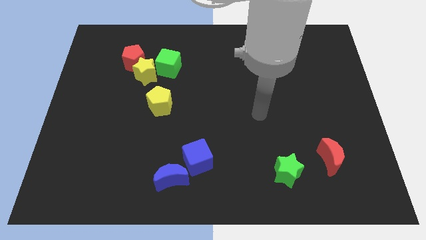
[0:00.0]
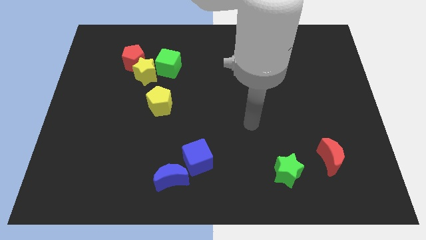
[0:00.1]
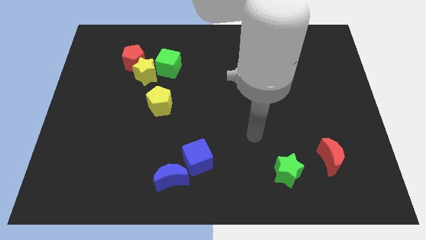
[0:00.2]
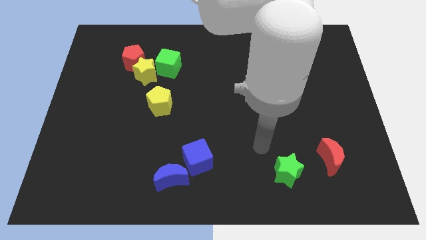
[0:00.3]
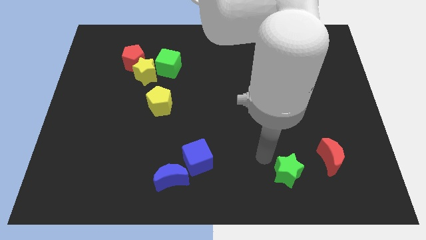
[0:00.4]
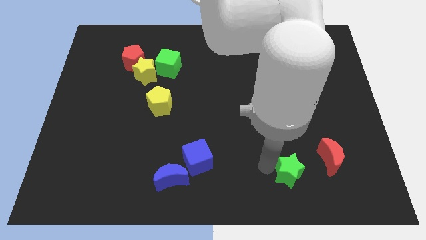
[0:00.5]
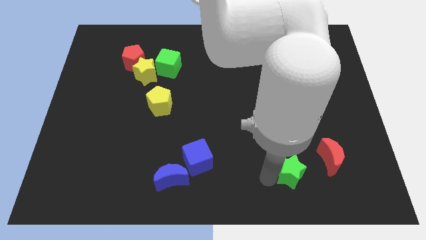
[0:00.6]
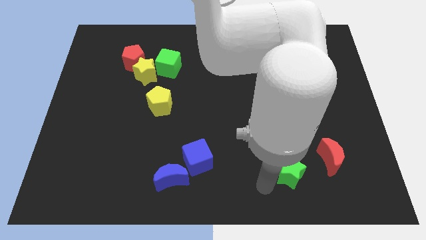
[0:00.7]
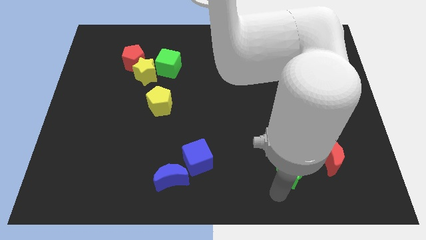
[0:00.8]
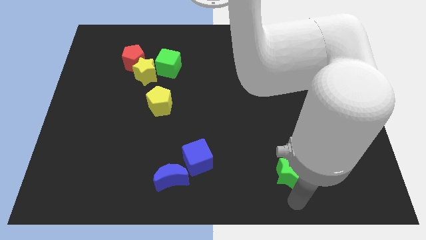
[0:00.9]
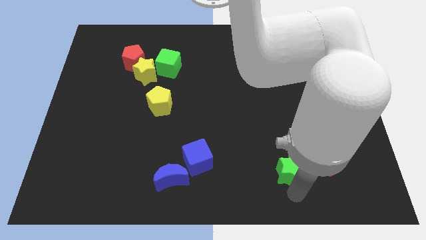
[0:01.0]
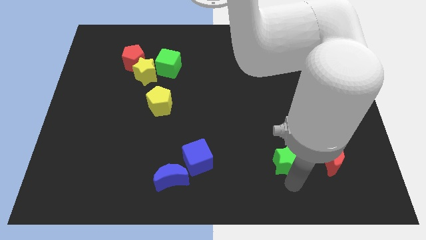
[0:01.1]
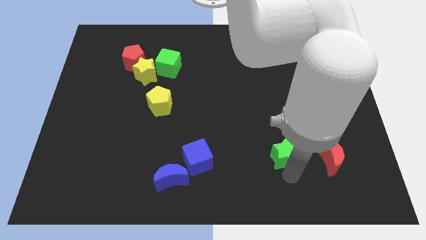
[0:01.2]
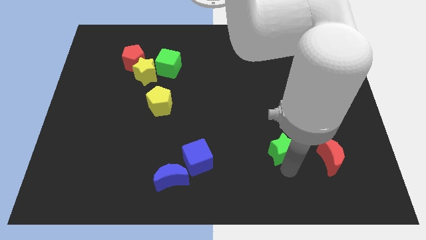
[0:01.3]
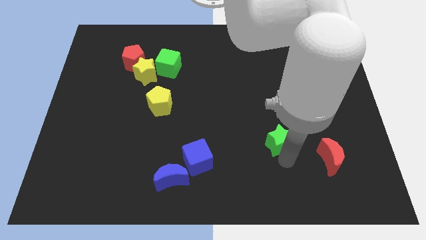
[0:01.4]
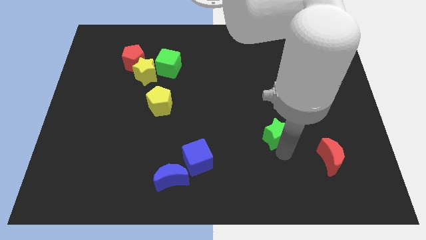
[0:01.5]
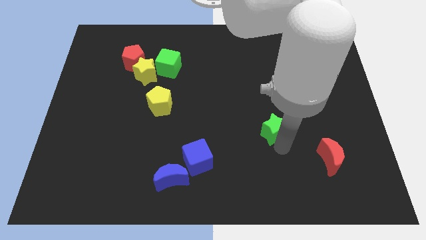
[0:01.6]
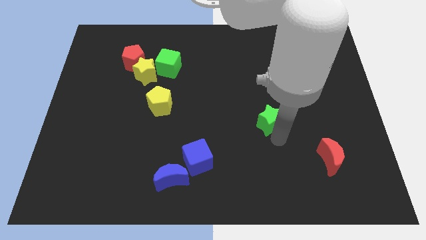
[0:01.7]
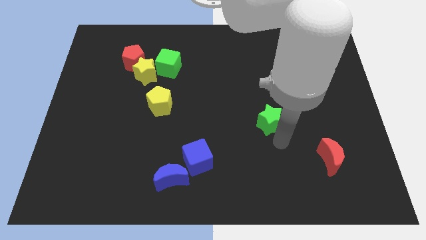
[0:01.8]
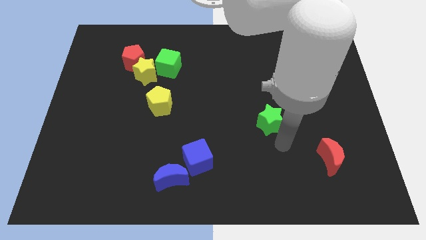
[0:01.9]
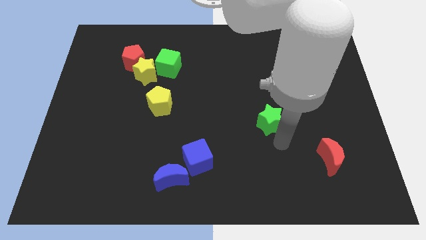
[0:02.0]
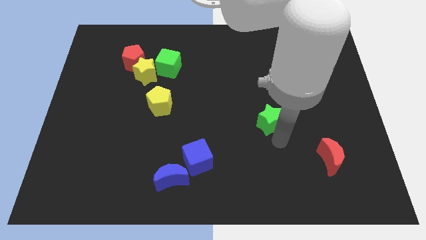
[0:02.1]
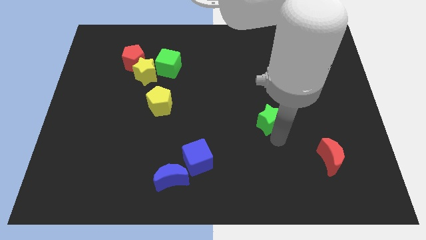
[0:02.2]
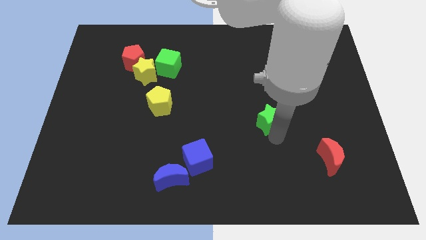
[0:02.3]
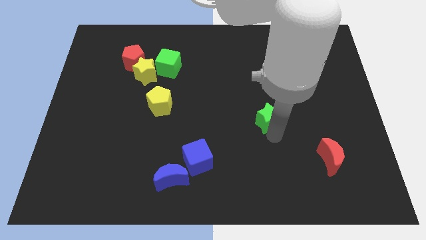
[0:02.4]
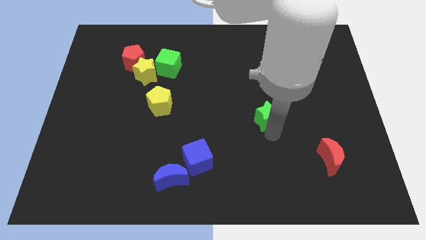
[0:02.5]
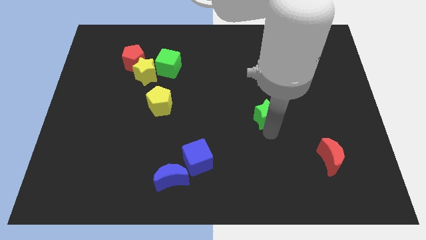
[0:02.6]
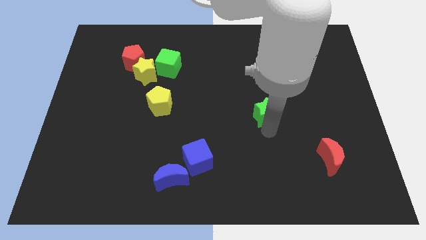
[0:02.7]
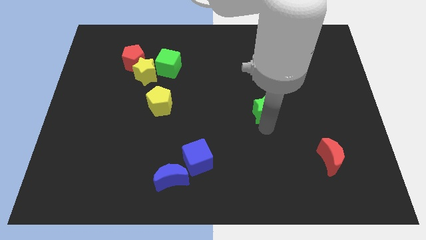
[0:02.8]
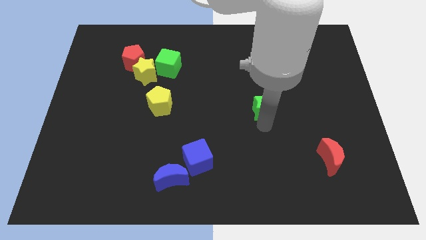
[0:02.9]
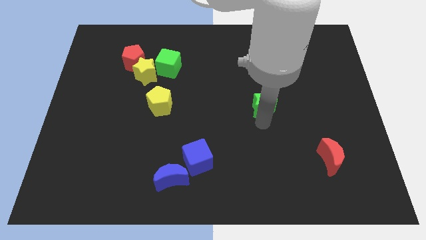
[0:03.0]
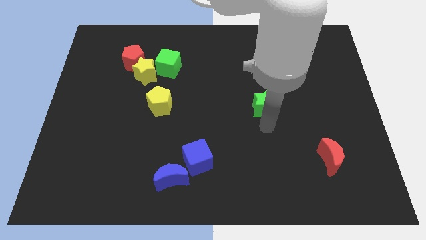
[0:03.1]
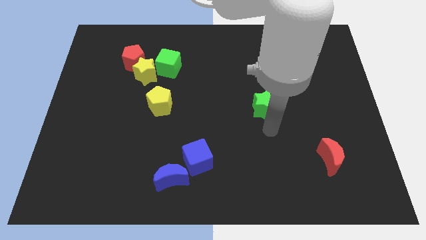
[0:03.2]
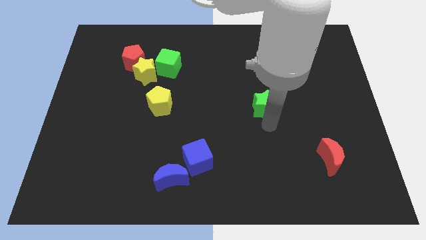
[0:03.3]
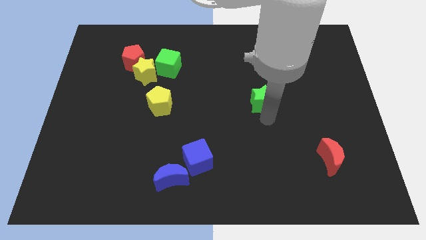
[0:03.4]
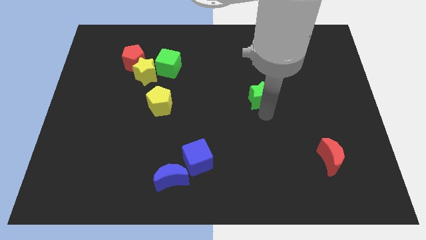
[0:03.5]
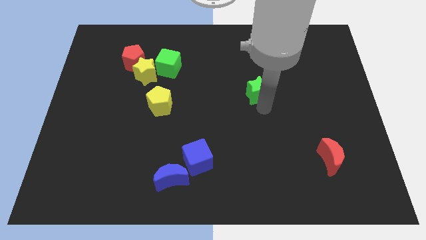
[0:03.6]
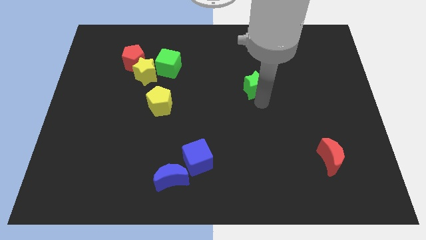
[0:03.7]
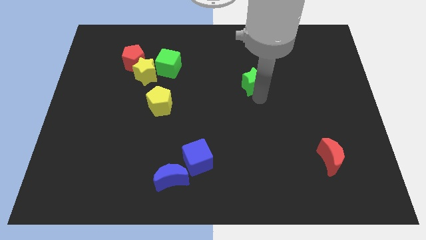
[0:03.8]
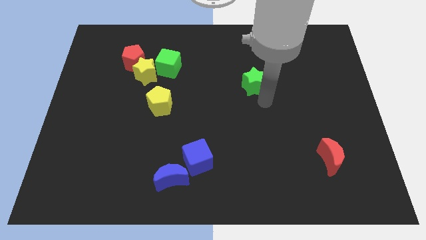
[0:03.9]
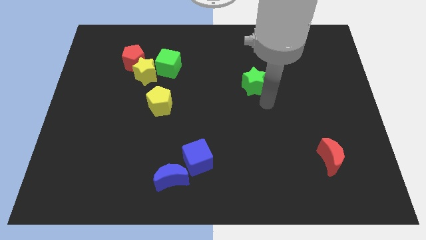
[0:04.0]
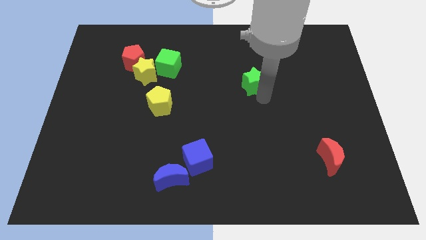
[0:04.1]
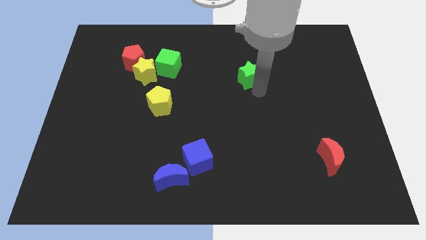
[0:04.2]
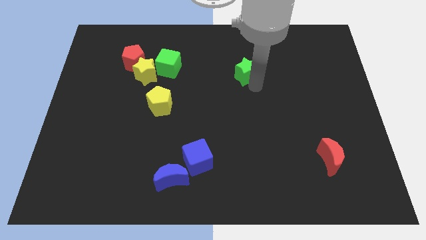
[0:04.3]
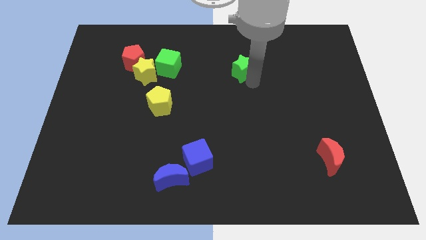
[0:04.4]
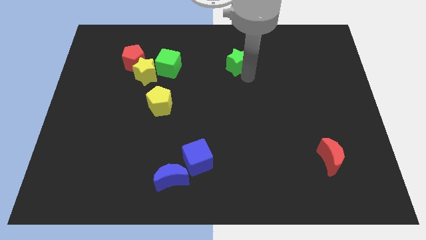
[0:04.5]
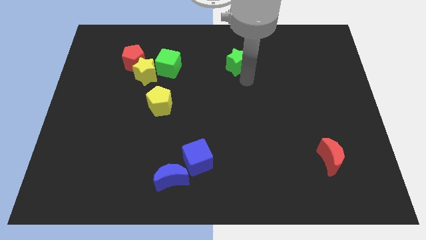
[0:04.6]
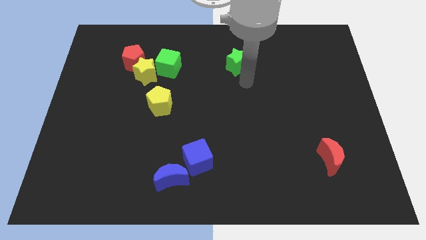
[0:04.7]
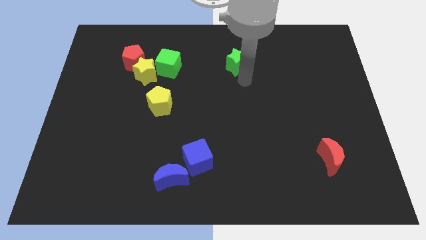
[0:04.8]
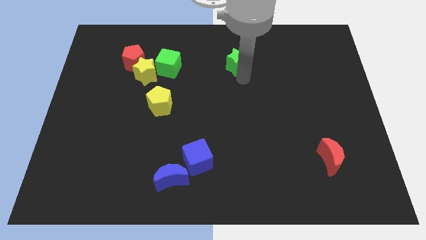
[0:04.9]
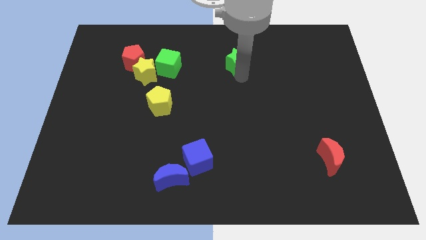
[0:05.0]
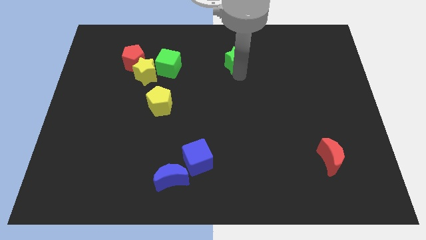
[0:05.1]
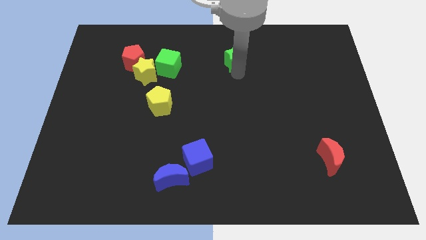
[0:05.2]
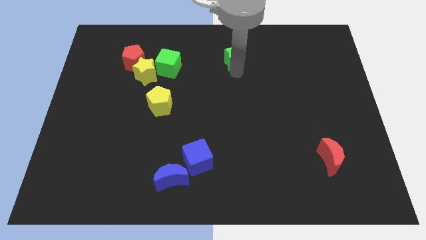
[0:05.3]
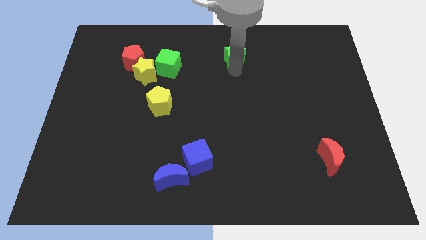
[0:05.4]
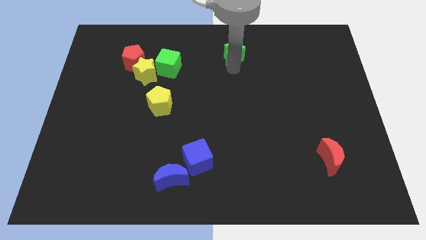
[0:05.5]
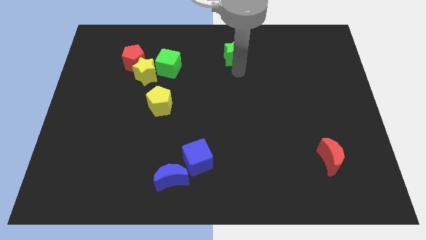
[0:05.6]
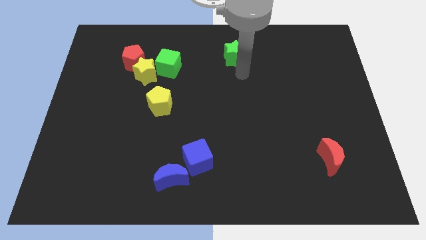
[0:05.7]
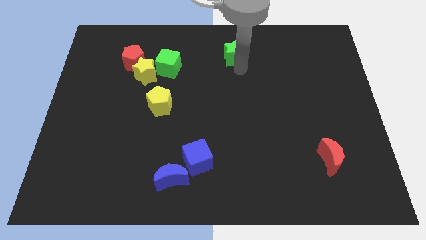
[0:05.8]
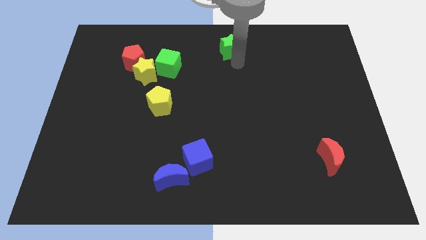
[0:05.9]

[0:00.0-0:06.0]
slide the green star to the towards your base

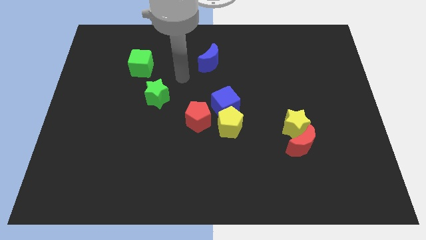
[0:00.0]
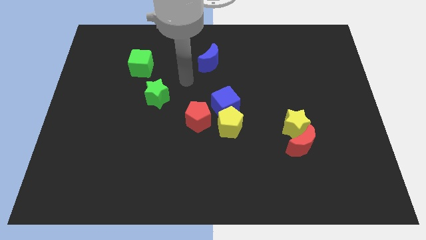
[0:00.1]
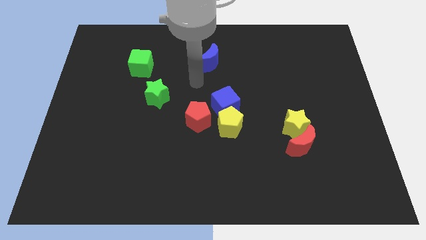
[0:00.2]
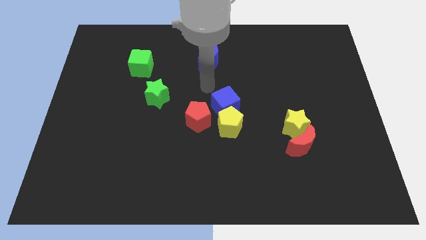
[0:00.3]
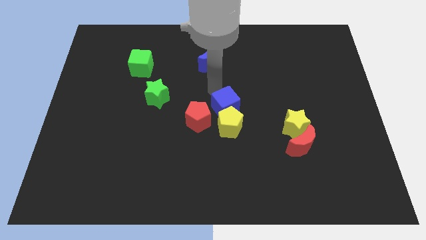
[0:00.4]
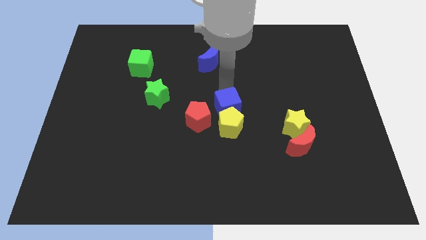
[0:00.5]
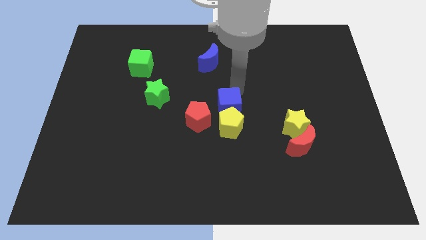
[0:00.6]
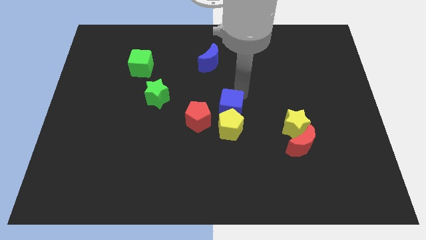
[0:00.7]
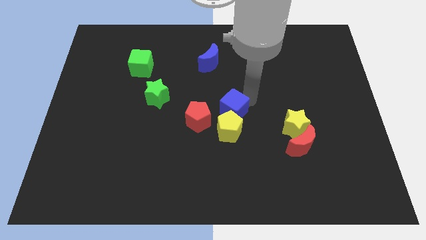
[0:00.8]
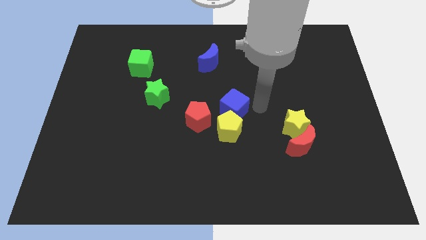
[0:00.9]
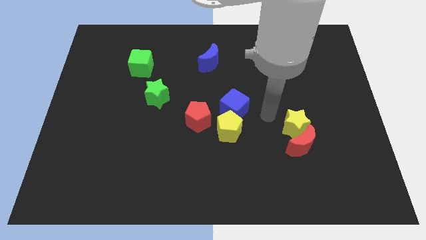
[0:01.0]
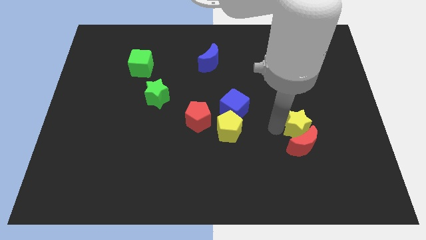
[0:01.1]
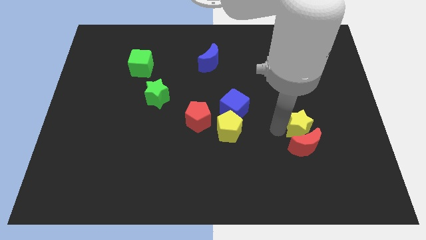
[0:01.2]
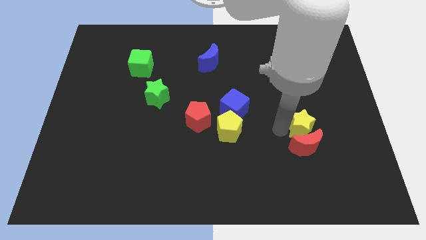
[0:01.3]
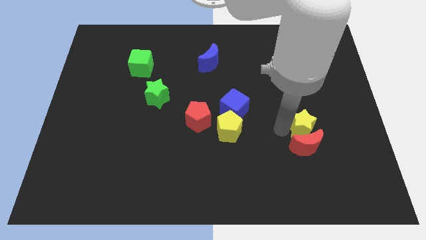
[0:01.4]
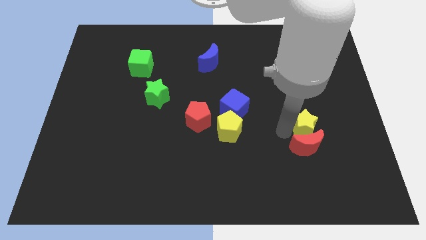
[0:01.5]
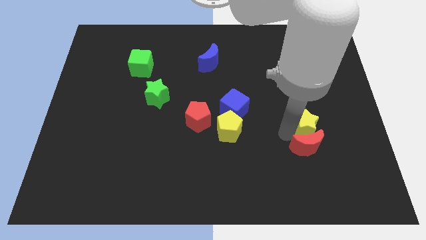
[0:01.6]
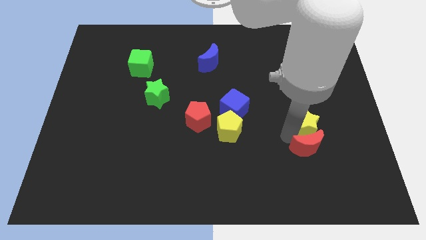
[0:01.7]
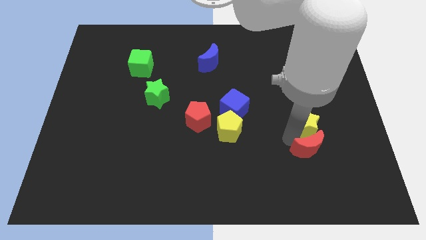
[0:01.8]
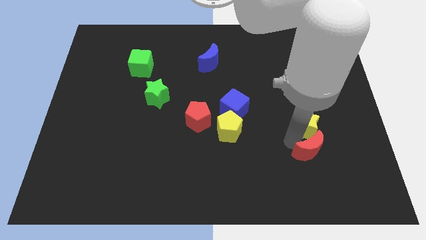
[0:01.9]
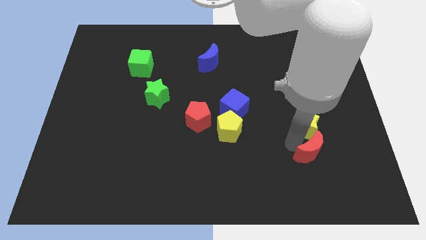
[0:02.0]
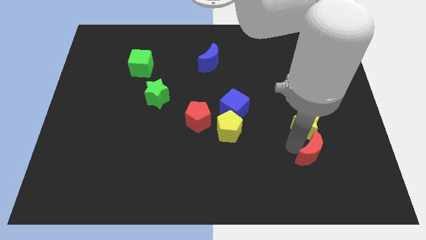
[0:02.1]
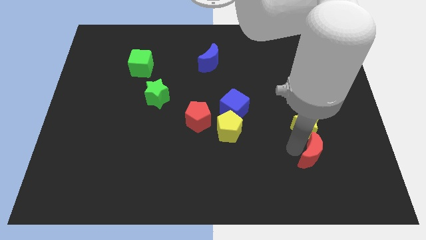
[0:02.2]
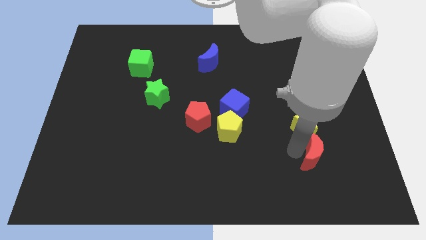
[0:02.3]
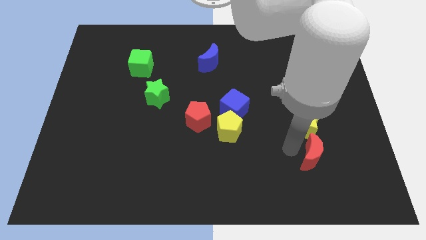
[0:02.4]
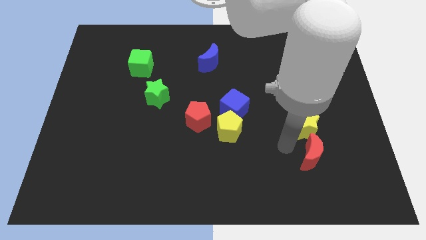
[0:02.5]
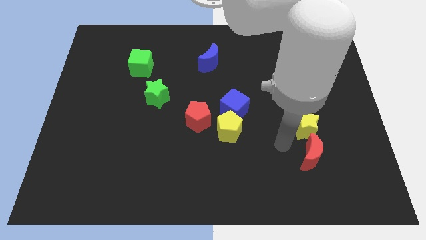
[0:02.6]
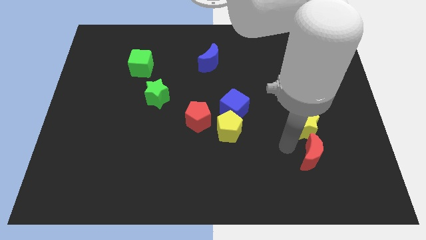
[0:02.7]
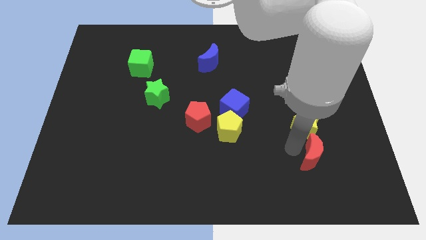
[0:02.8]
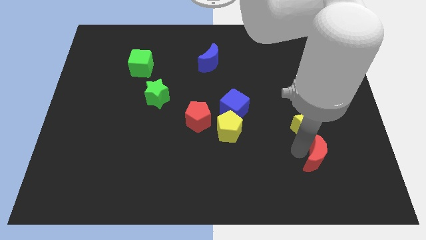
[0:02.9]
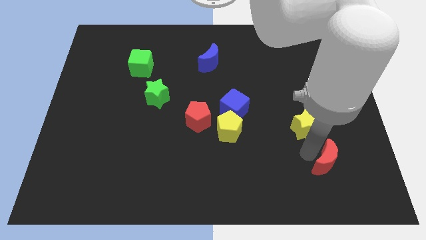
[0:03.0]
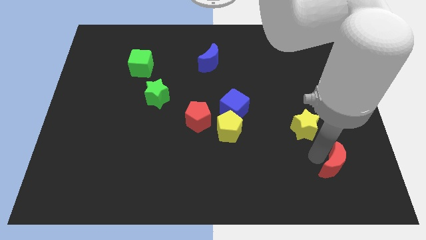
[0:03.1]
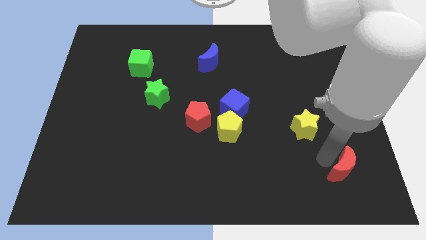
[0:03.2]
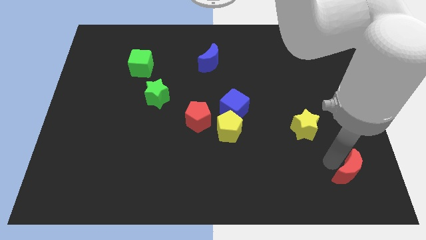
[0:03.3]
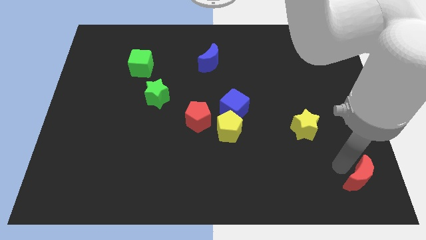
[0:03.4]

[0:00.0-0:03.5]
slide the red moon to the bottom right of the board
